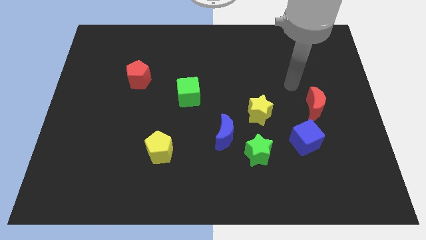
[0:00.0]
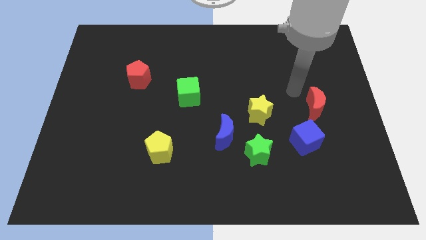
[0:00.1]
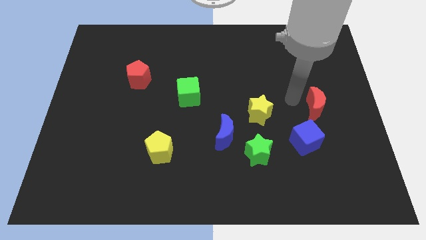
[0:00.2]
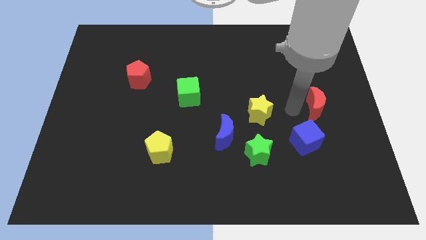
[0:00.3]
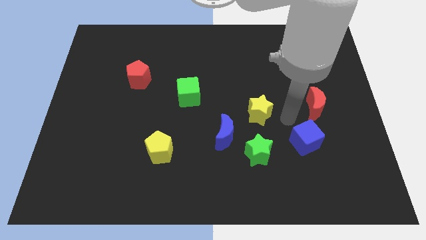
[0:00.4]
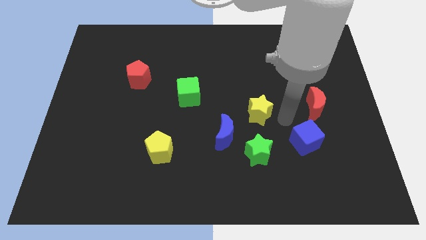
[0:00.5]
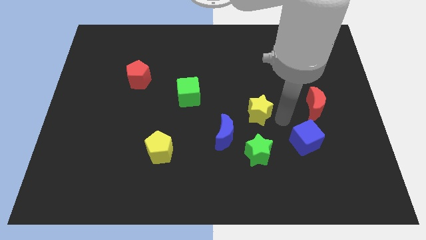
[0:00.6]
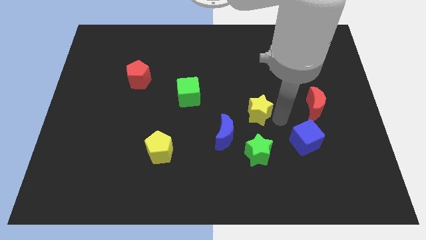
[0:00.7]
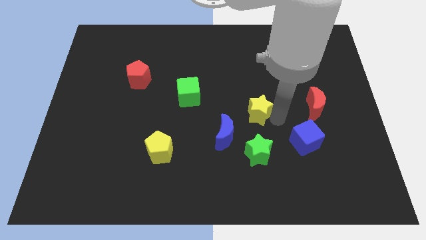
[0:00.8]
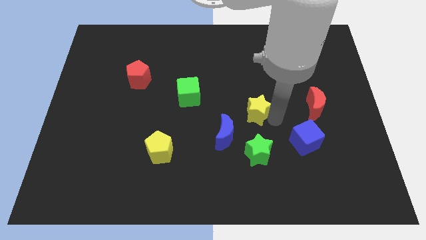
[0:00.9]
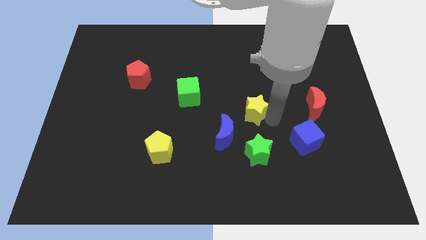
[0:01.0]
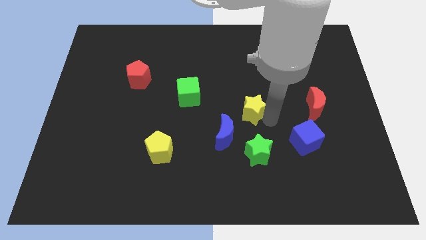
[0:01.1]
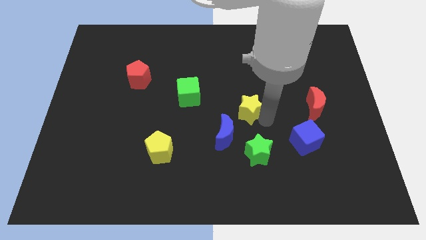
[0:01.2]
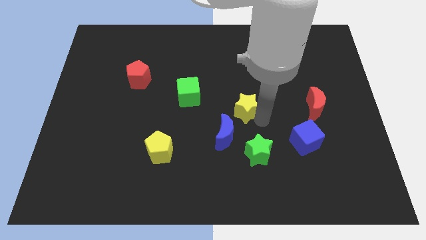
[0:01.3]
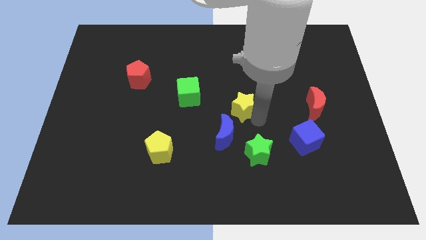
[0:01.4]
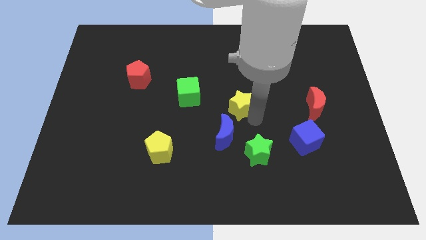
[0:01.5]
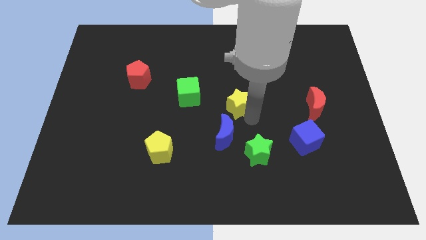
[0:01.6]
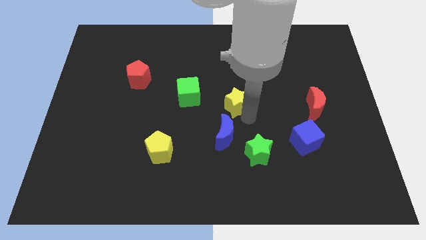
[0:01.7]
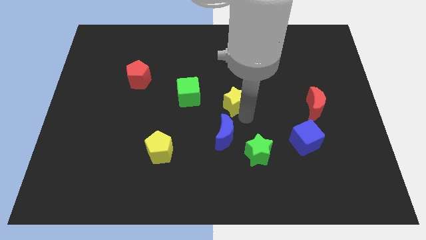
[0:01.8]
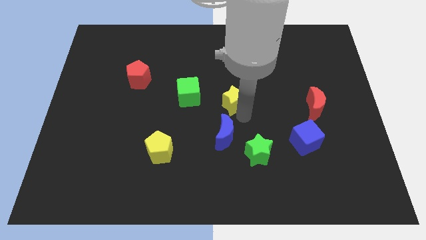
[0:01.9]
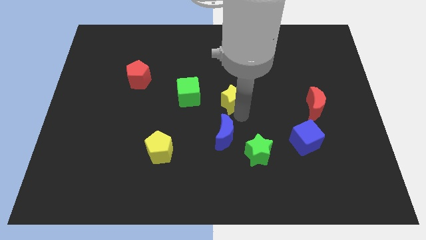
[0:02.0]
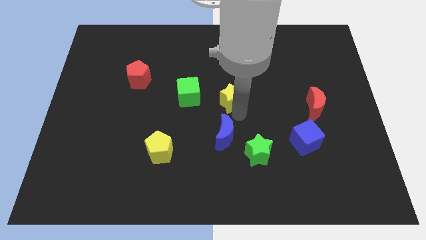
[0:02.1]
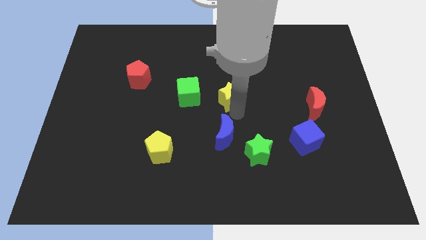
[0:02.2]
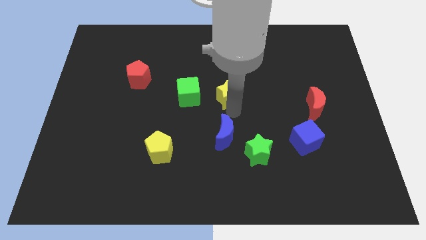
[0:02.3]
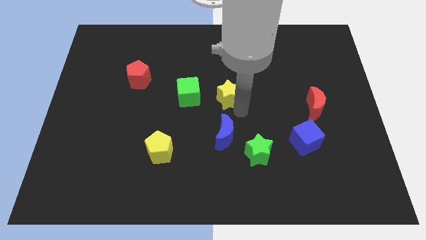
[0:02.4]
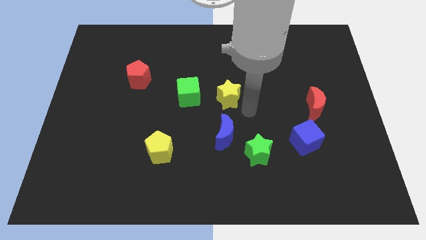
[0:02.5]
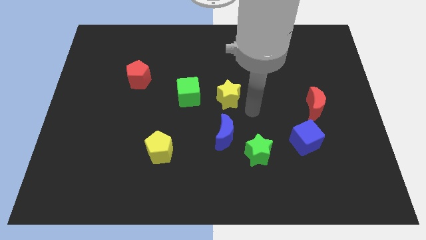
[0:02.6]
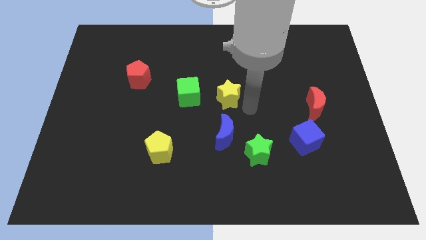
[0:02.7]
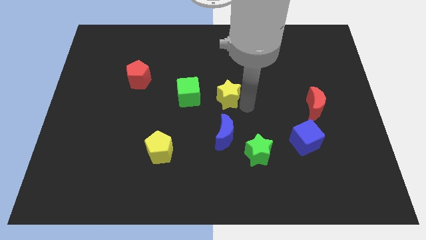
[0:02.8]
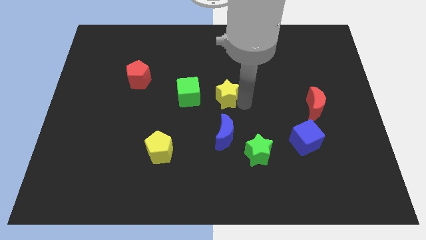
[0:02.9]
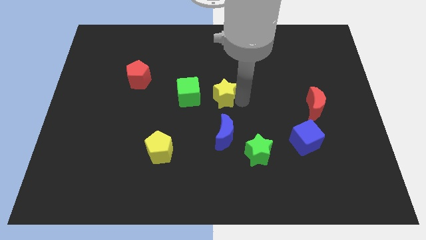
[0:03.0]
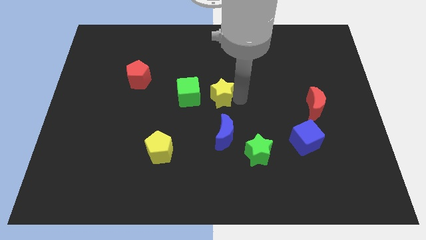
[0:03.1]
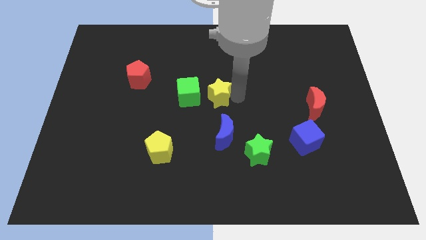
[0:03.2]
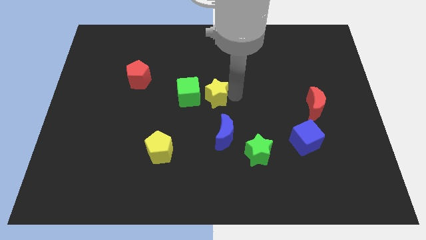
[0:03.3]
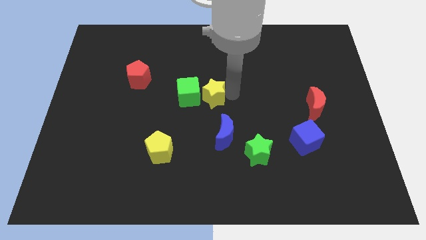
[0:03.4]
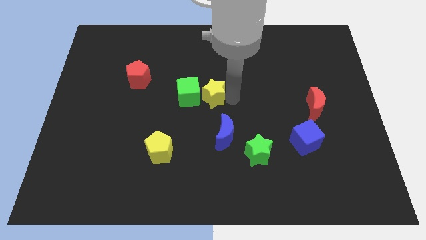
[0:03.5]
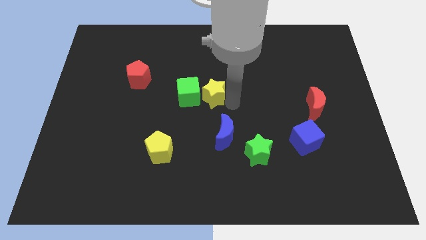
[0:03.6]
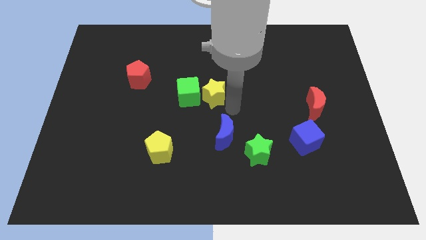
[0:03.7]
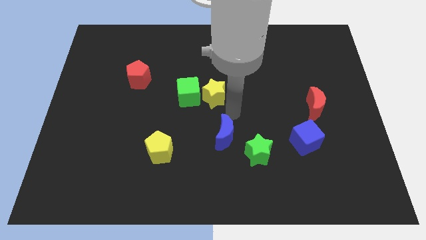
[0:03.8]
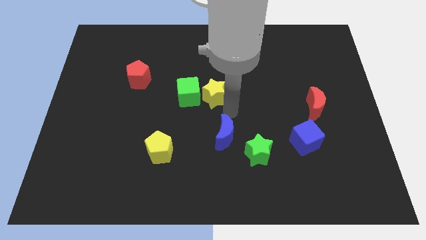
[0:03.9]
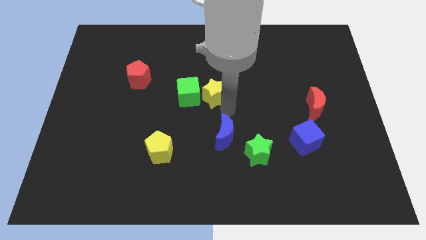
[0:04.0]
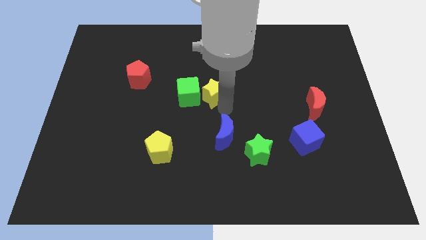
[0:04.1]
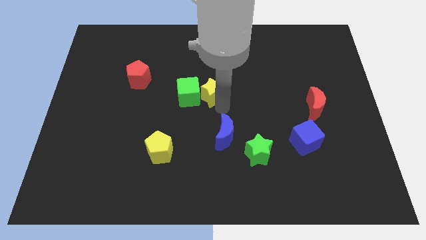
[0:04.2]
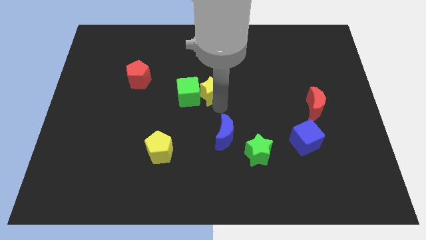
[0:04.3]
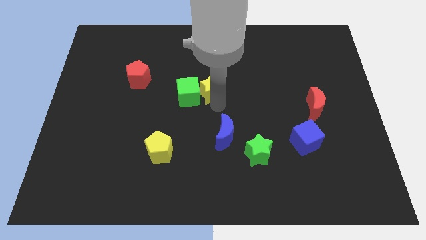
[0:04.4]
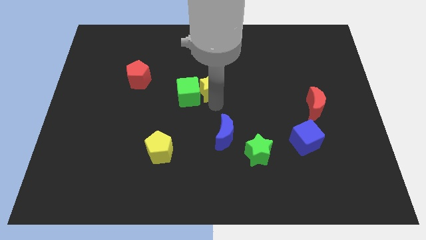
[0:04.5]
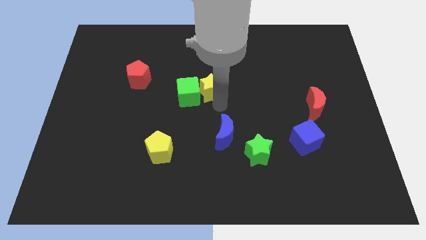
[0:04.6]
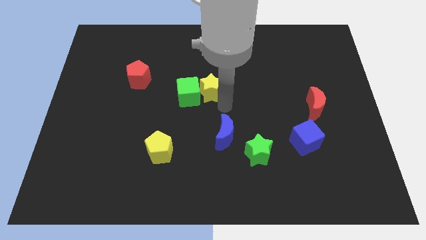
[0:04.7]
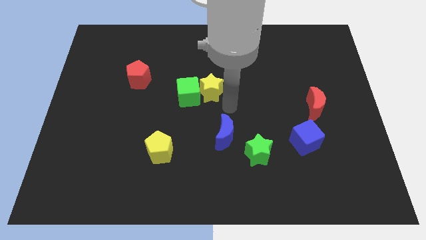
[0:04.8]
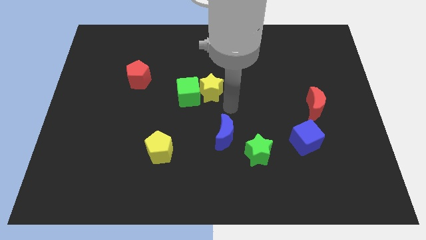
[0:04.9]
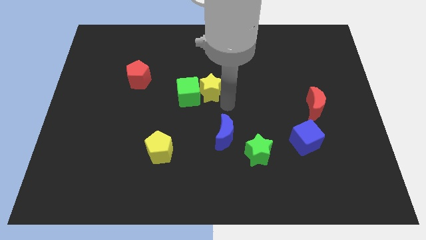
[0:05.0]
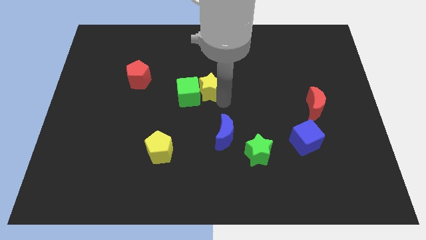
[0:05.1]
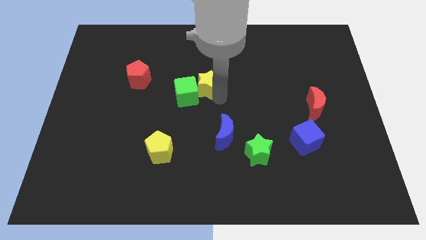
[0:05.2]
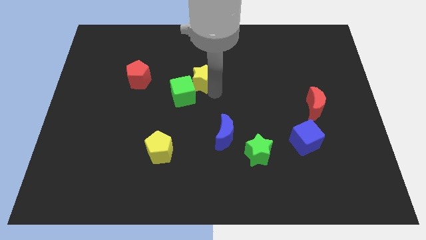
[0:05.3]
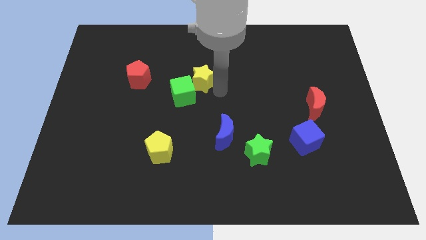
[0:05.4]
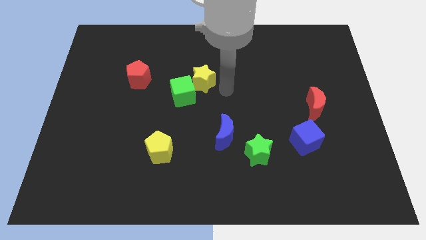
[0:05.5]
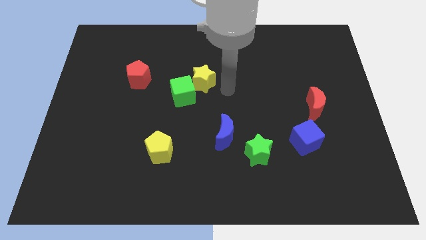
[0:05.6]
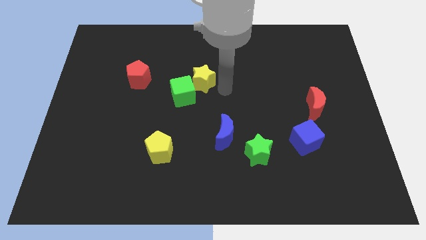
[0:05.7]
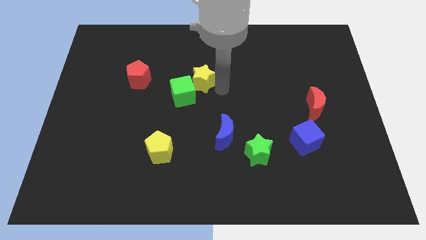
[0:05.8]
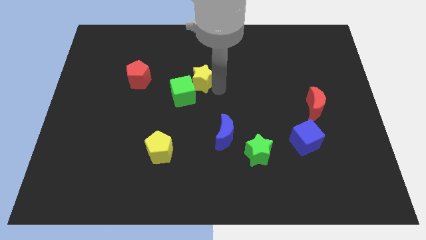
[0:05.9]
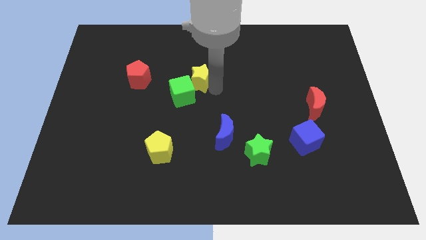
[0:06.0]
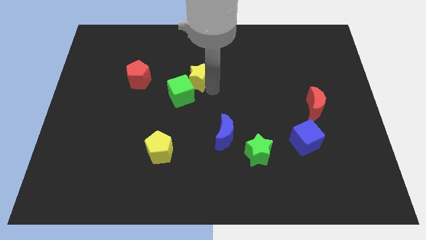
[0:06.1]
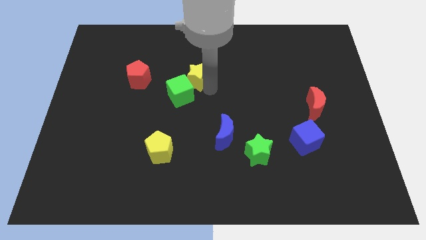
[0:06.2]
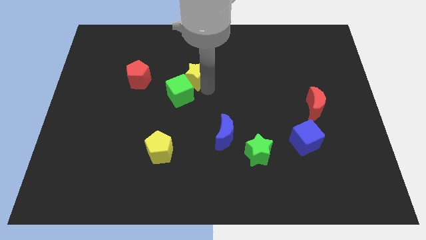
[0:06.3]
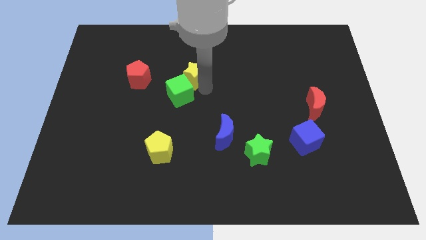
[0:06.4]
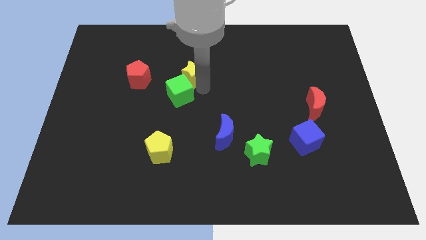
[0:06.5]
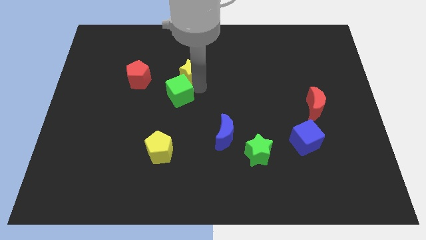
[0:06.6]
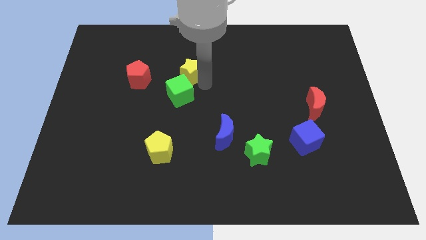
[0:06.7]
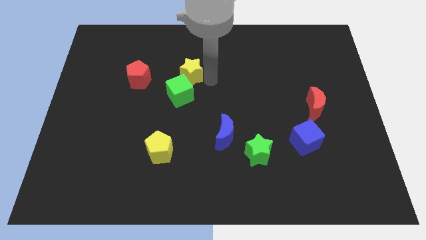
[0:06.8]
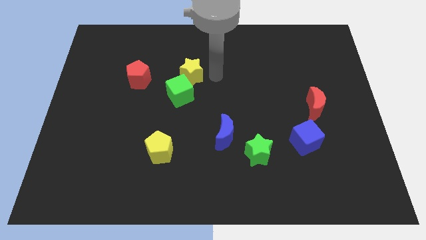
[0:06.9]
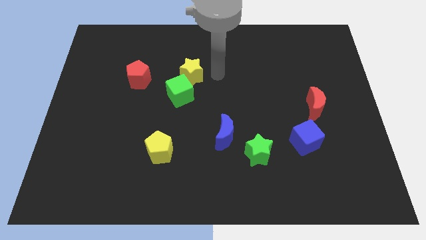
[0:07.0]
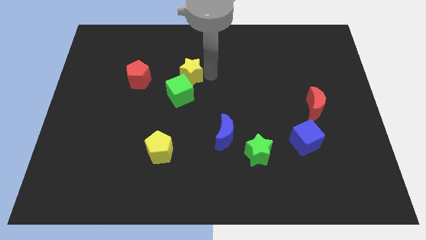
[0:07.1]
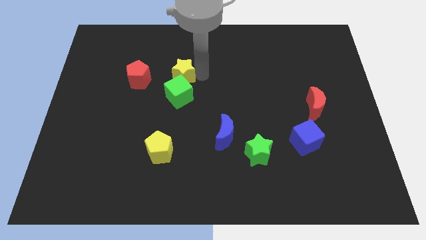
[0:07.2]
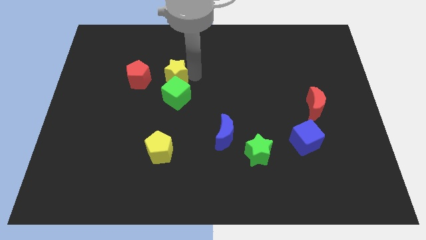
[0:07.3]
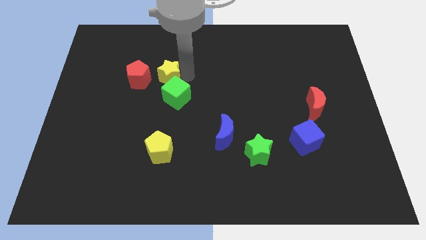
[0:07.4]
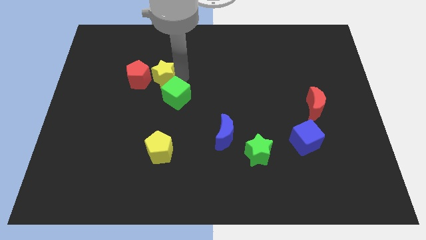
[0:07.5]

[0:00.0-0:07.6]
slide the yellow star next to the red pentagon
